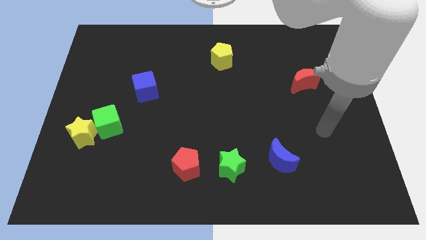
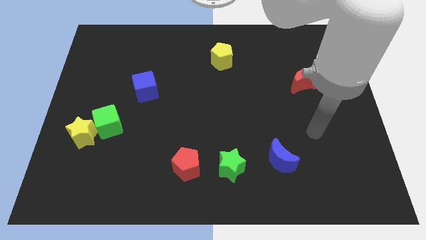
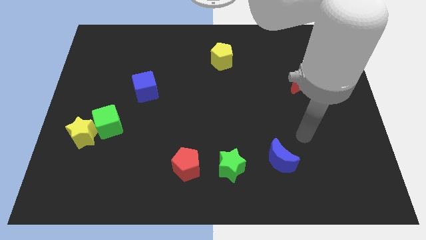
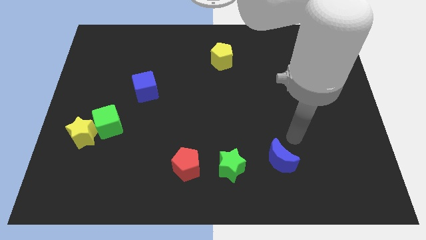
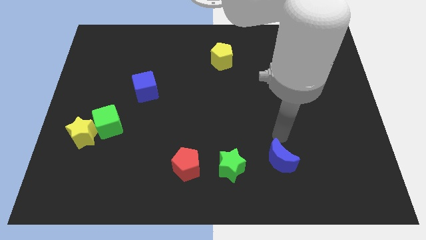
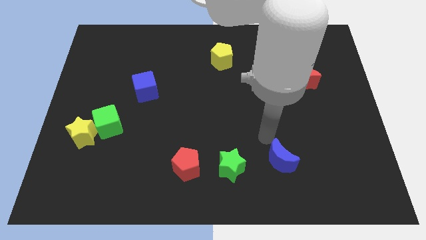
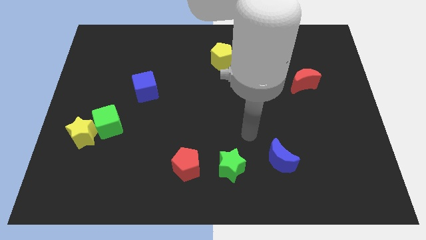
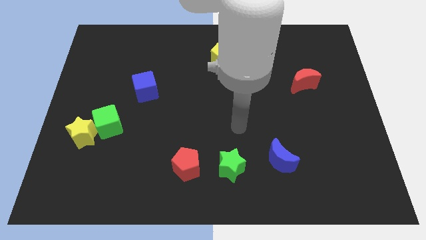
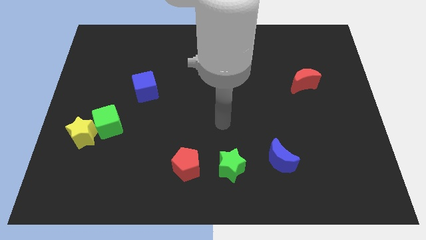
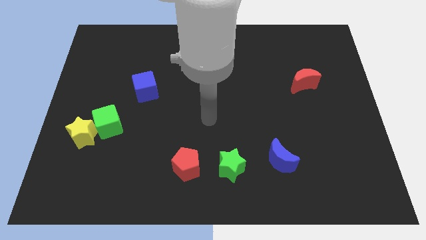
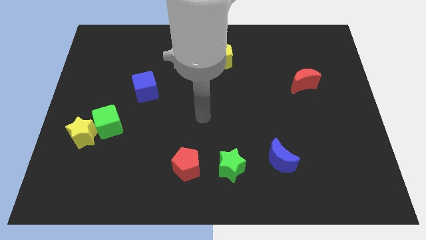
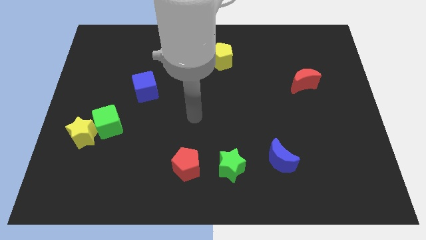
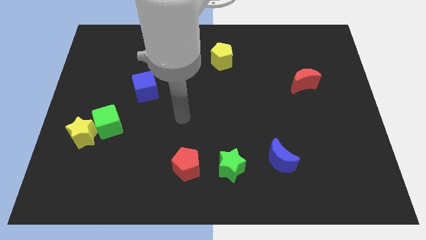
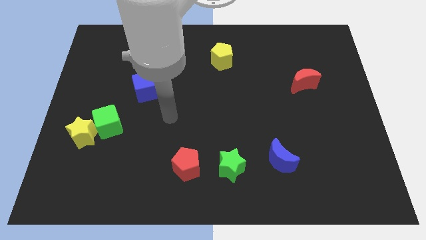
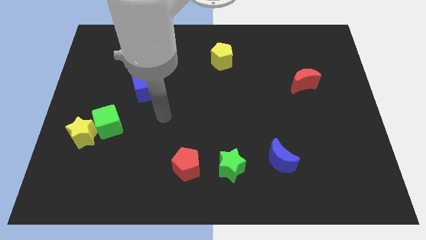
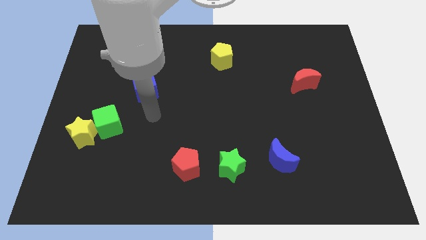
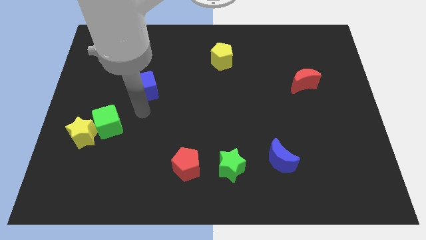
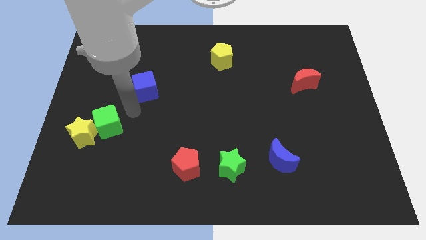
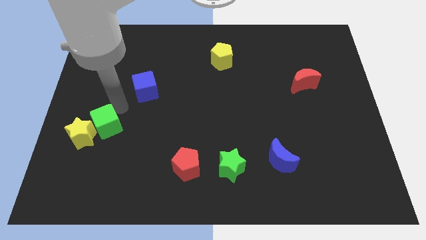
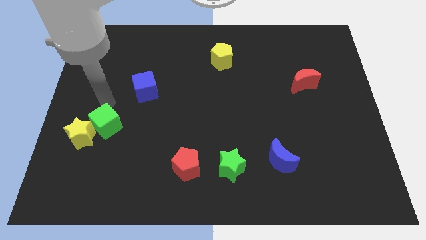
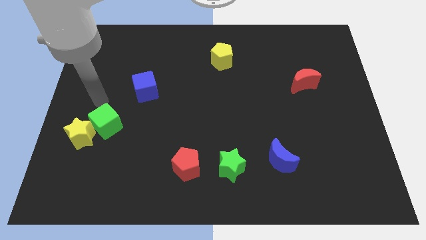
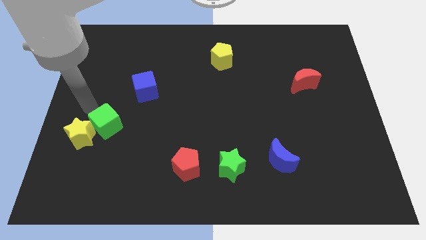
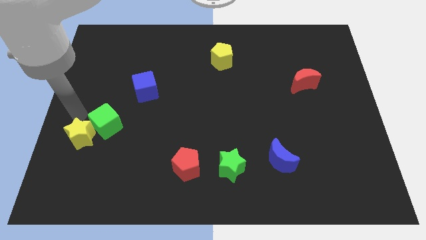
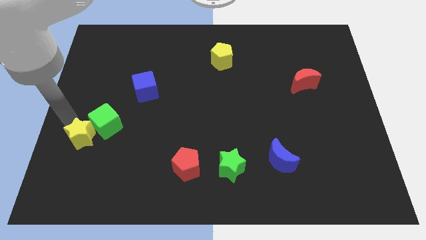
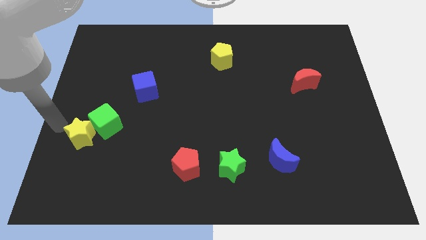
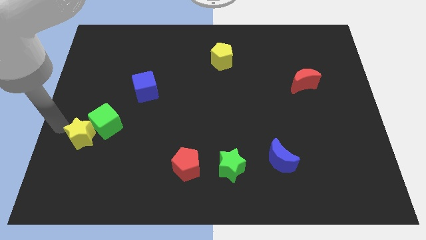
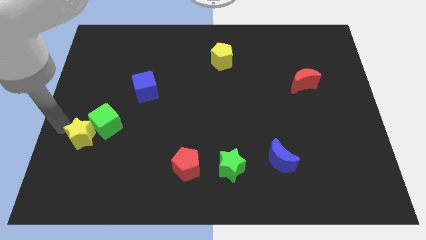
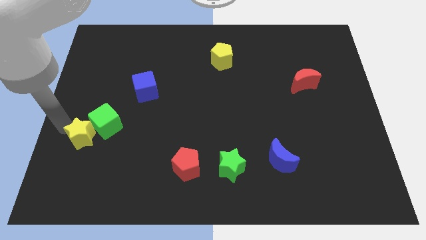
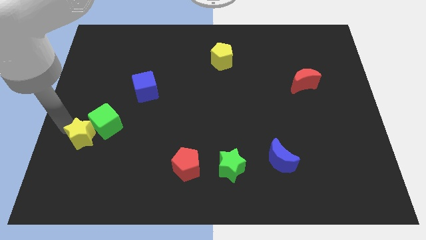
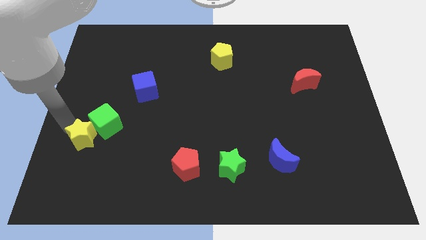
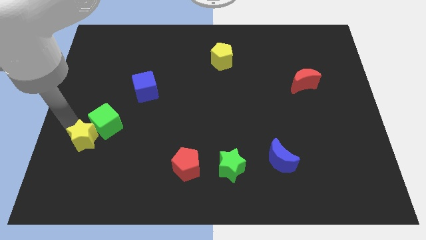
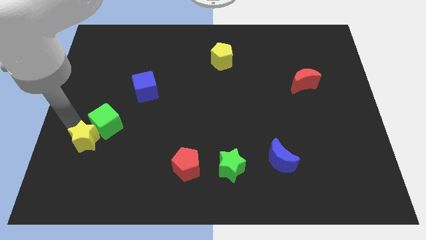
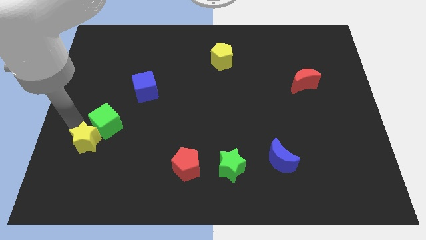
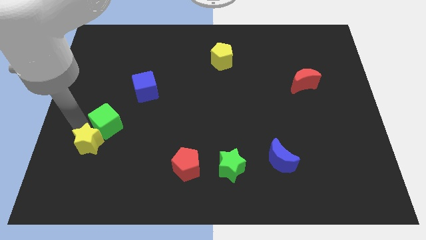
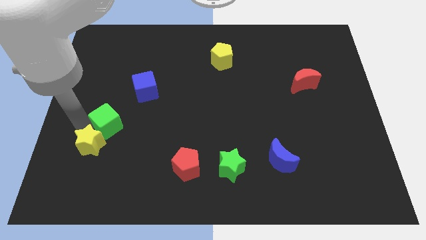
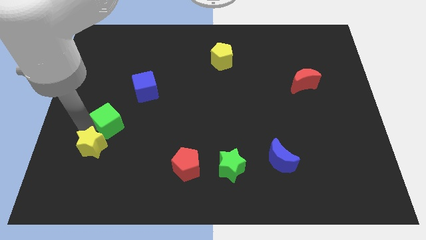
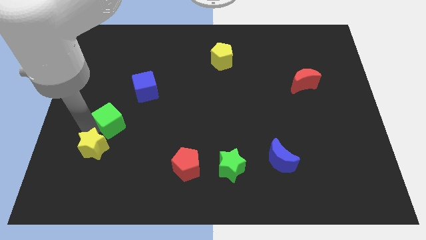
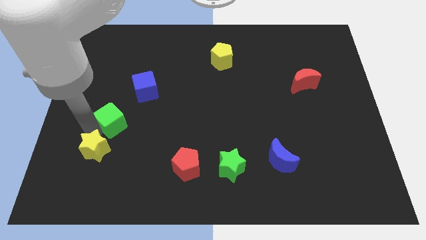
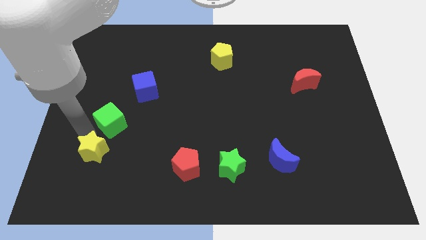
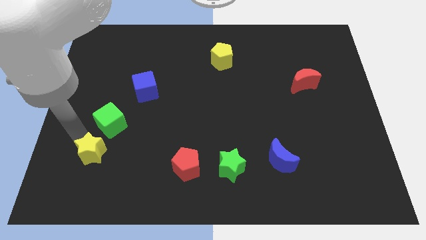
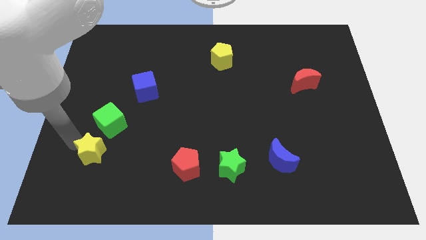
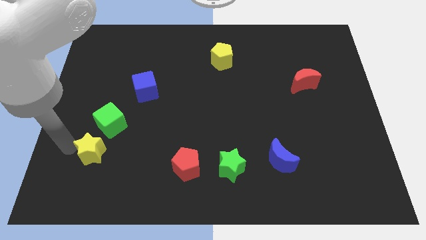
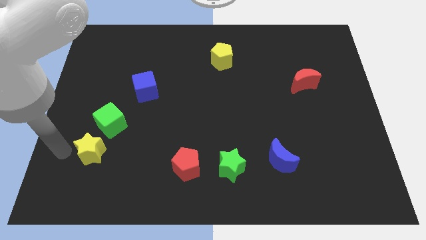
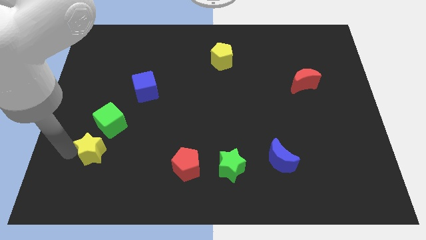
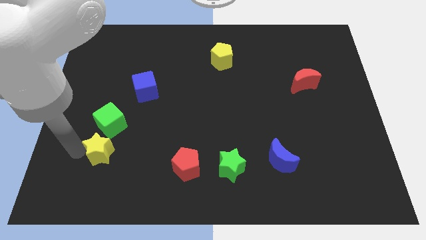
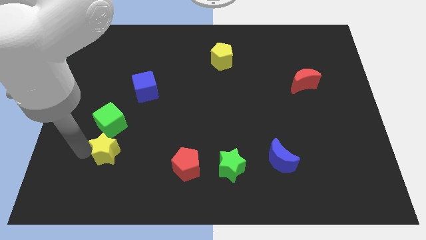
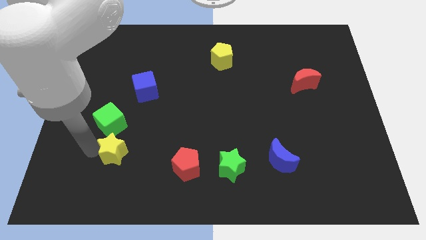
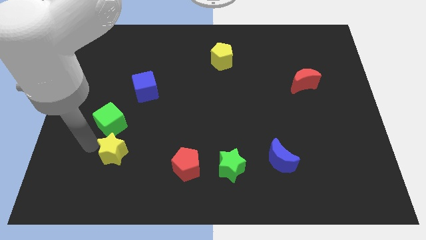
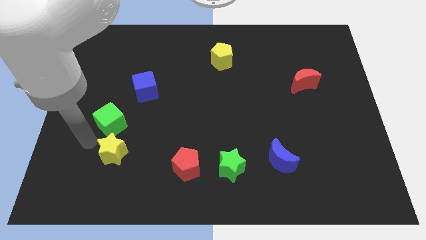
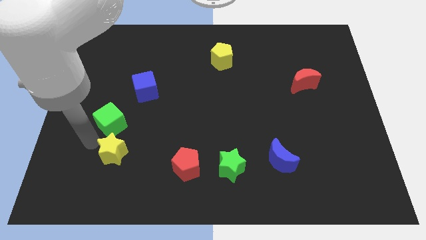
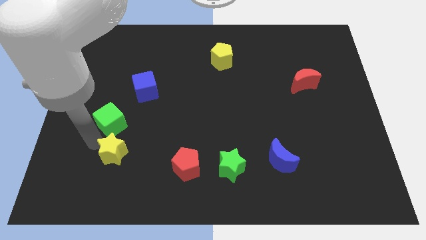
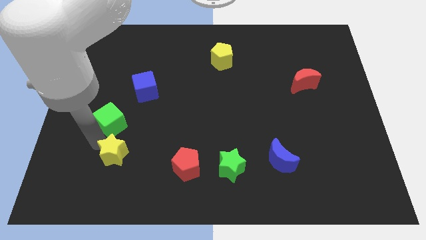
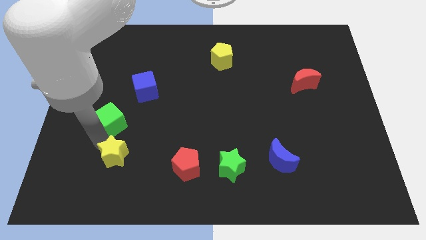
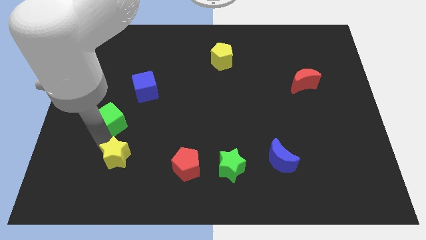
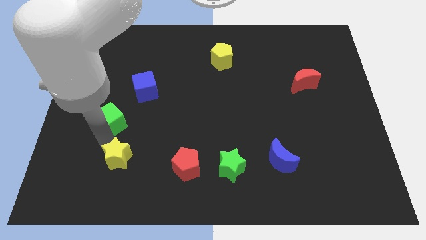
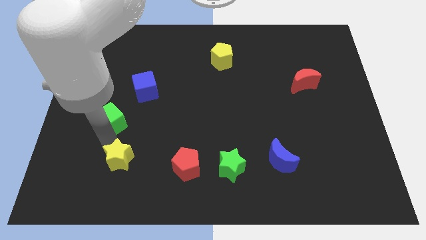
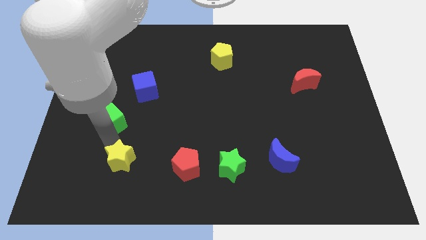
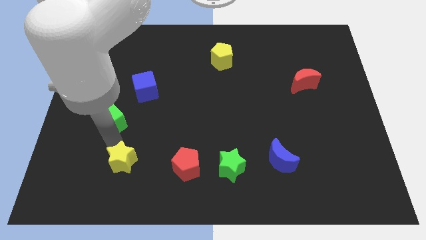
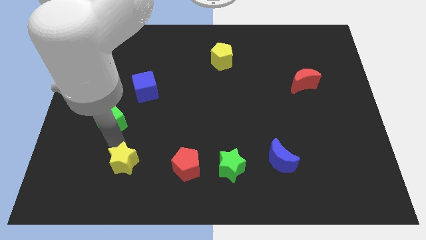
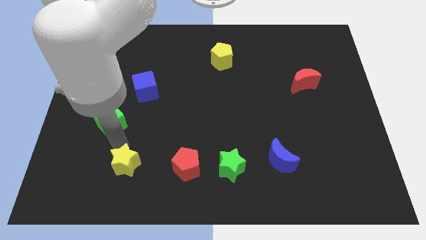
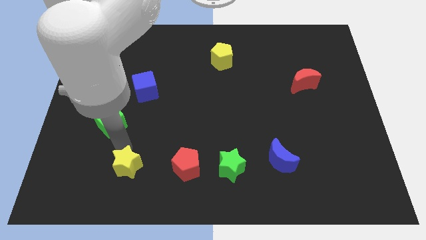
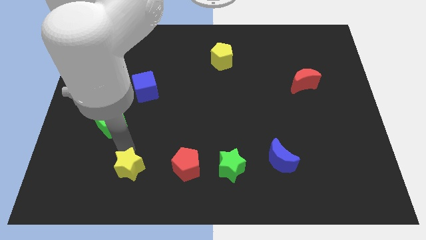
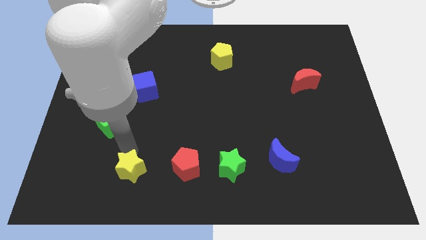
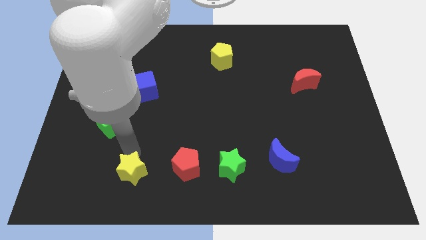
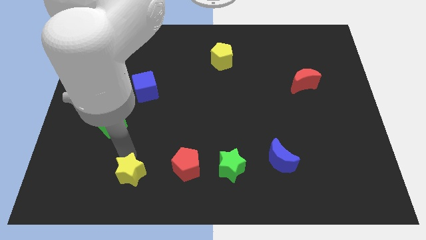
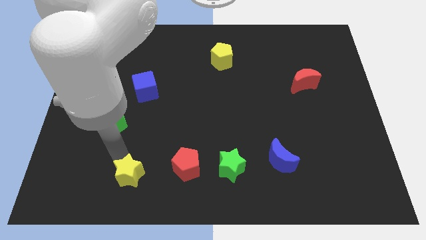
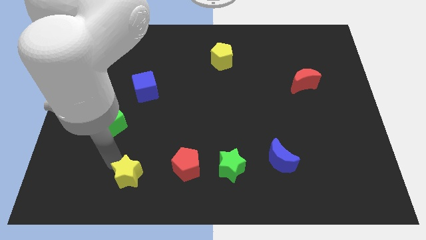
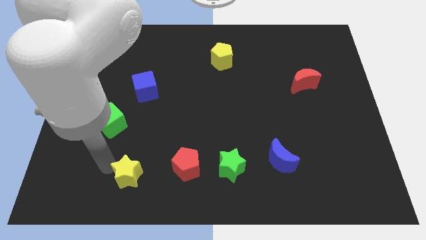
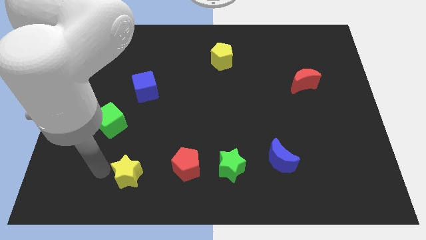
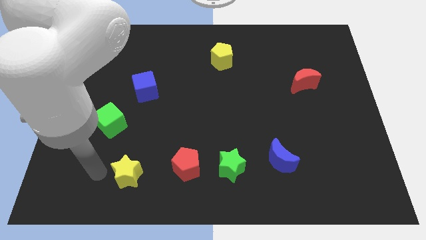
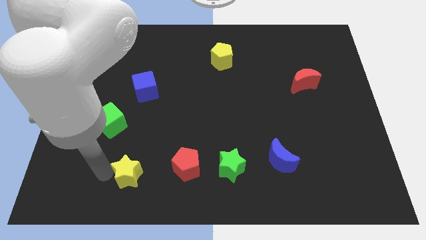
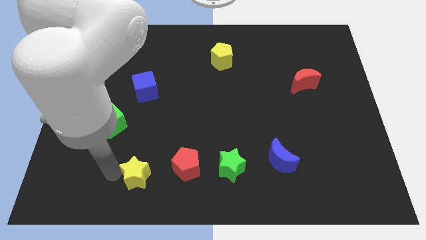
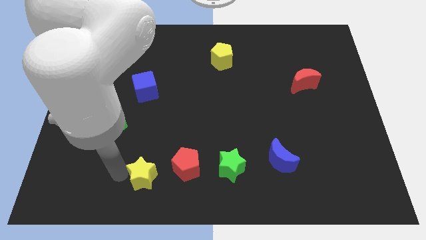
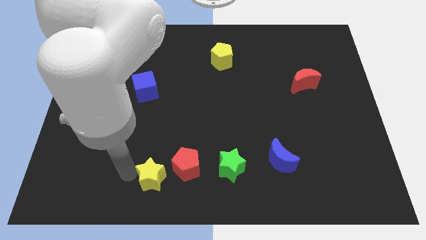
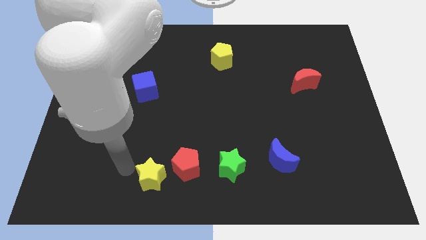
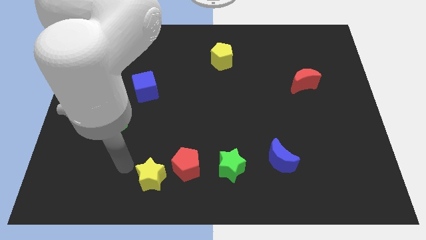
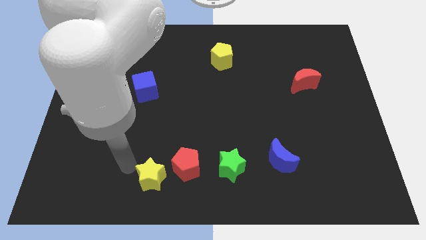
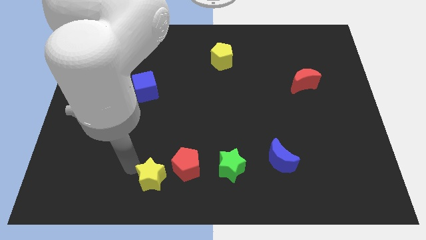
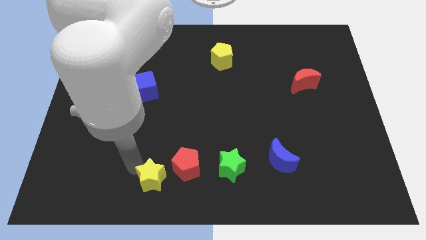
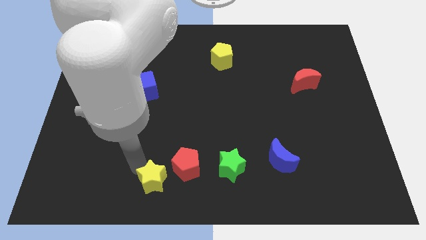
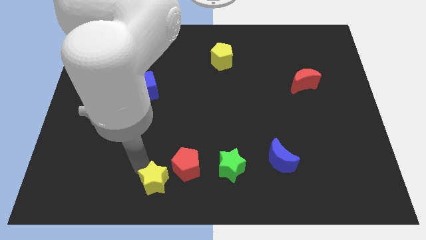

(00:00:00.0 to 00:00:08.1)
put the yellow star to the bottom
